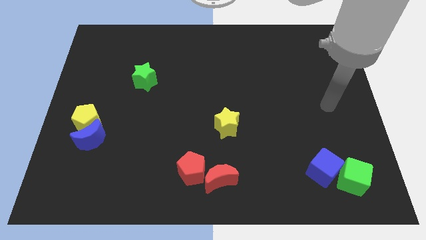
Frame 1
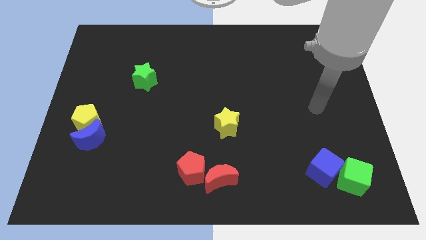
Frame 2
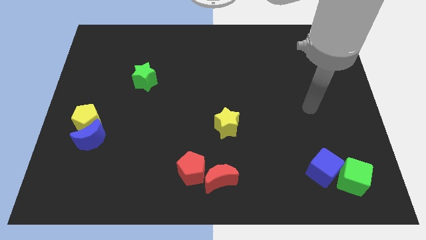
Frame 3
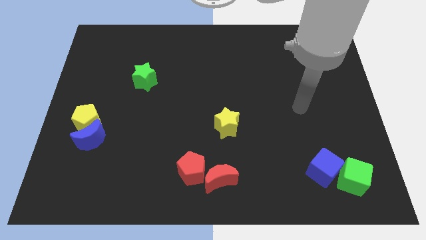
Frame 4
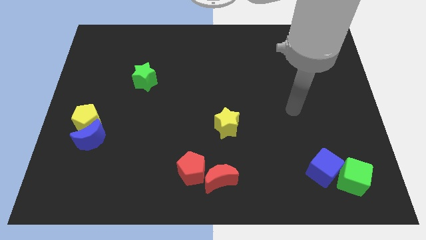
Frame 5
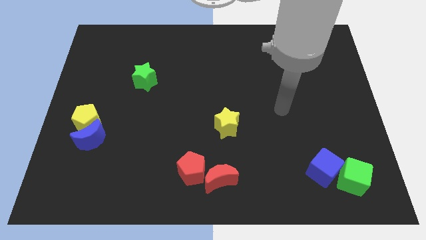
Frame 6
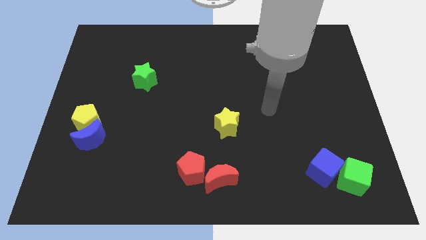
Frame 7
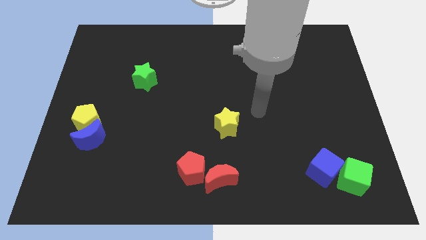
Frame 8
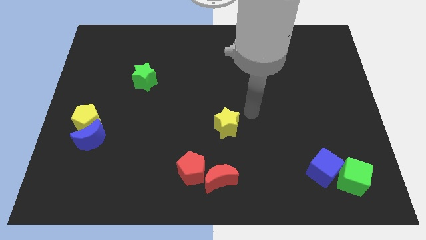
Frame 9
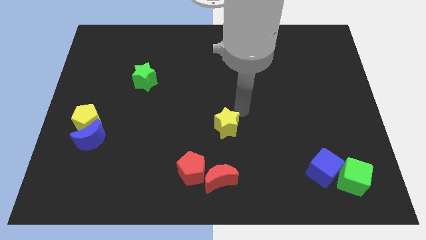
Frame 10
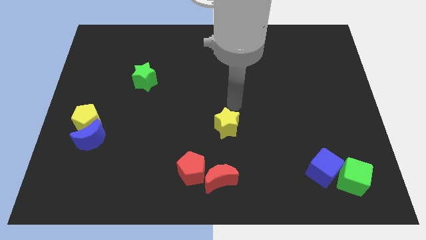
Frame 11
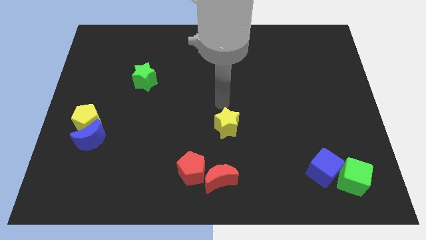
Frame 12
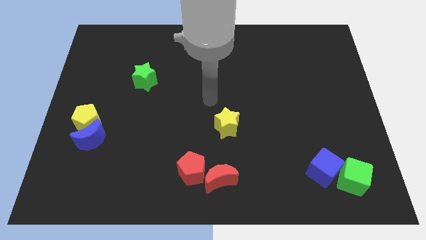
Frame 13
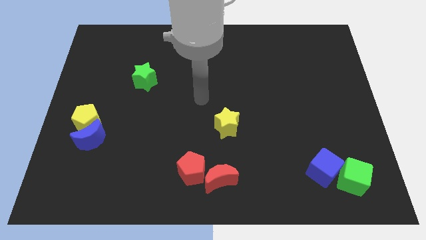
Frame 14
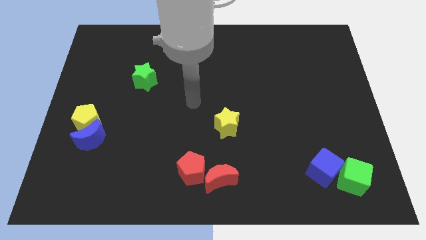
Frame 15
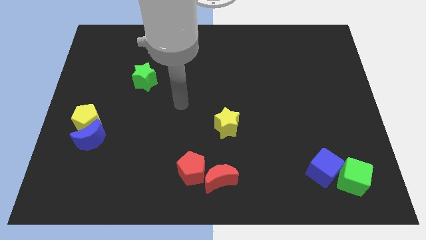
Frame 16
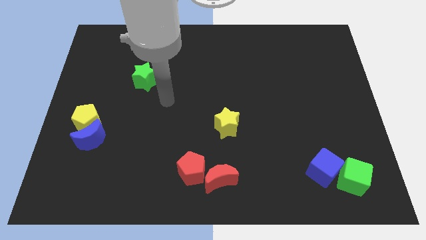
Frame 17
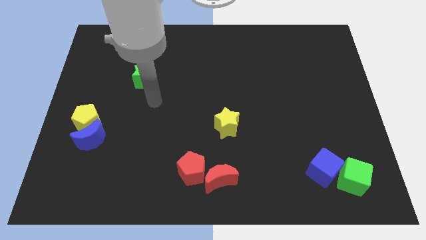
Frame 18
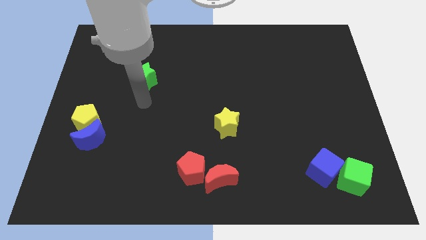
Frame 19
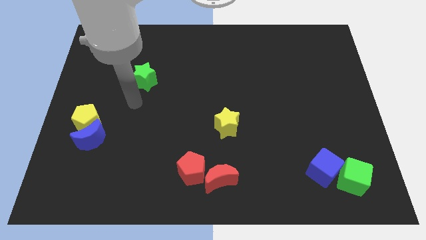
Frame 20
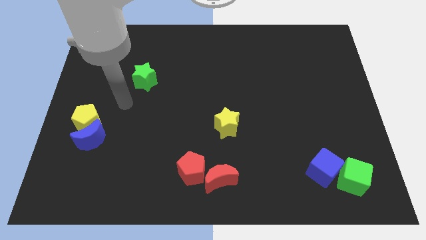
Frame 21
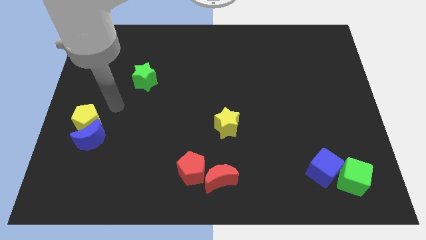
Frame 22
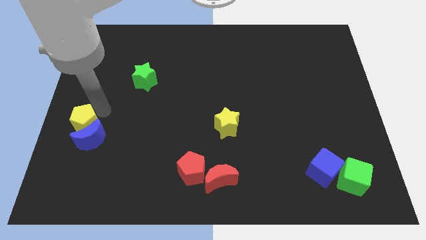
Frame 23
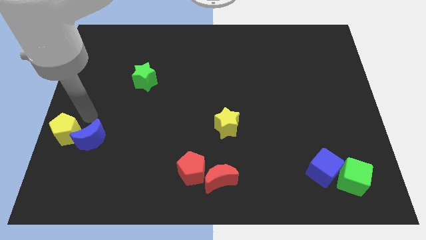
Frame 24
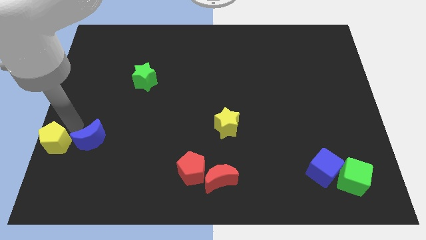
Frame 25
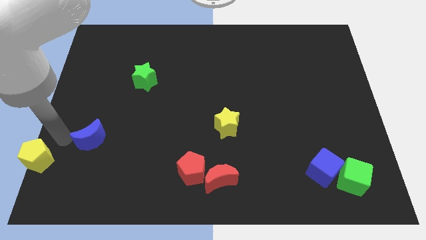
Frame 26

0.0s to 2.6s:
pull the blue moon apart from the yellow pentagon

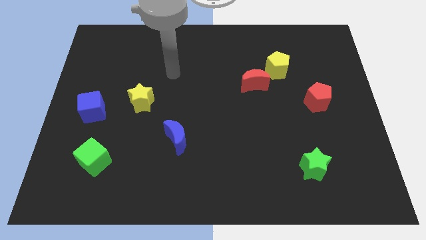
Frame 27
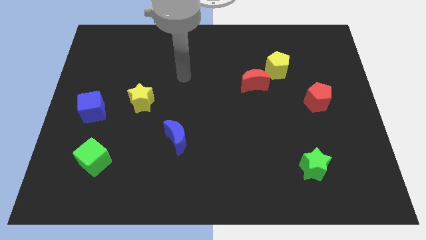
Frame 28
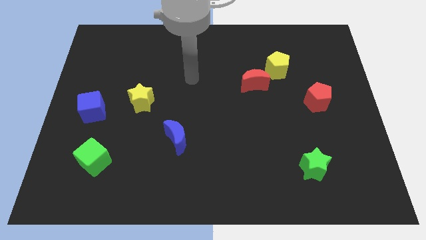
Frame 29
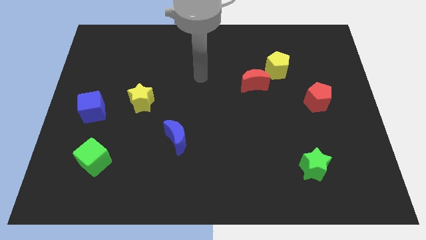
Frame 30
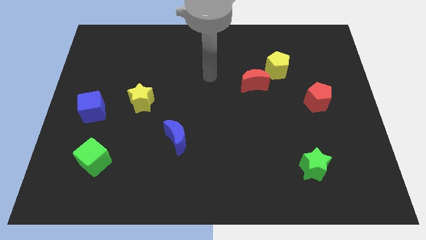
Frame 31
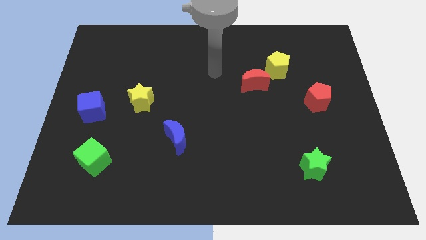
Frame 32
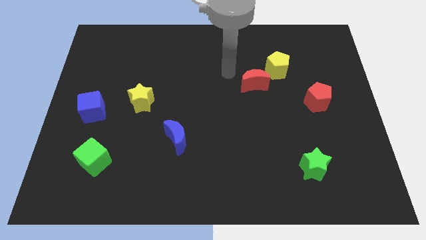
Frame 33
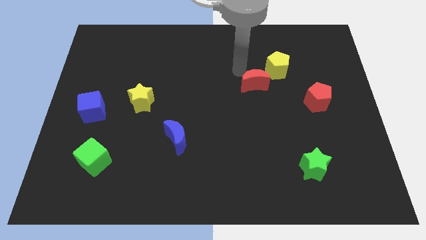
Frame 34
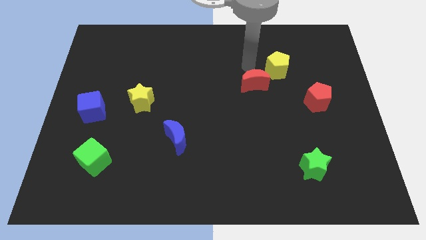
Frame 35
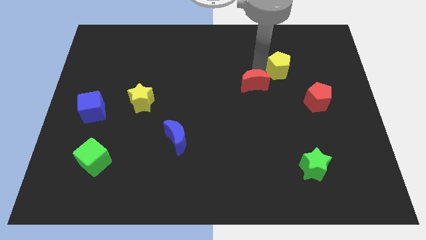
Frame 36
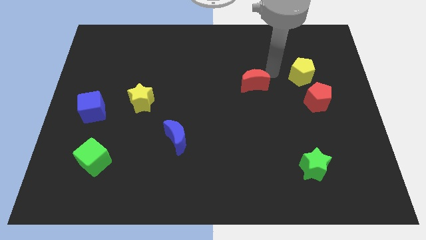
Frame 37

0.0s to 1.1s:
move the red moon away from the yellow pentagon

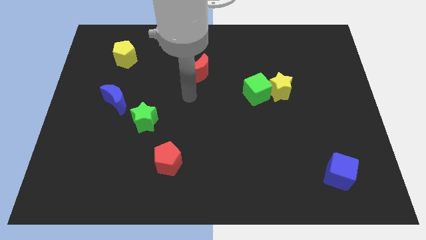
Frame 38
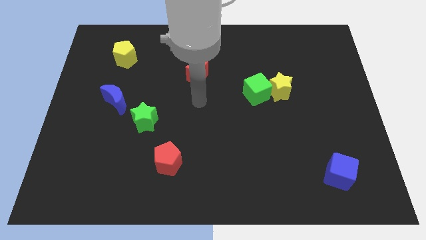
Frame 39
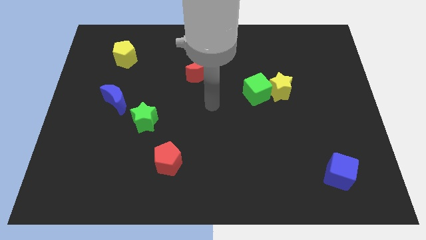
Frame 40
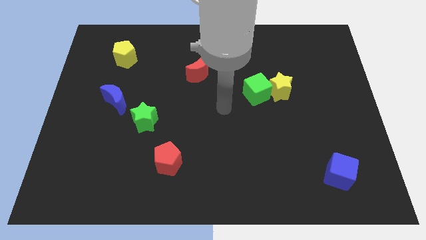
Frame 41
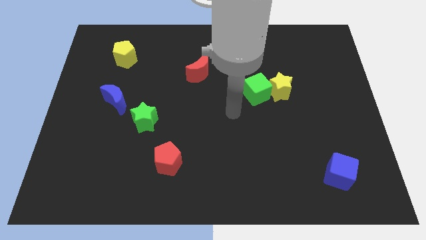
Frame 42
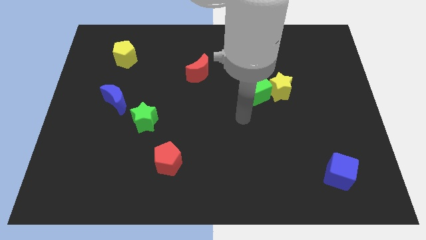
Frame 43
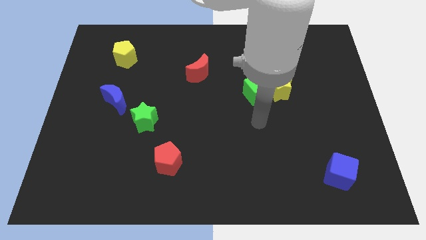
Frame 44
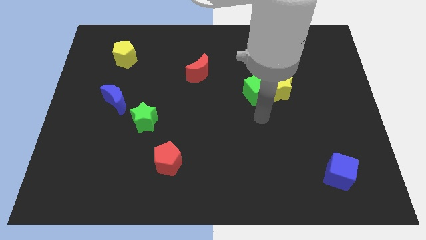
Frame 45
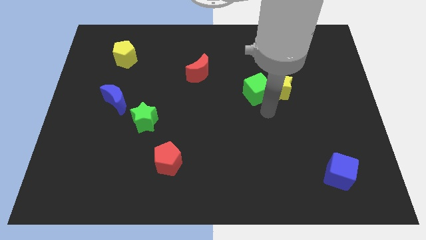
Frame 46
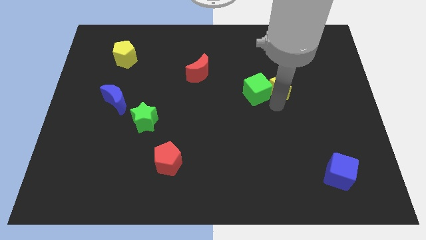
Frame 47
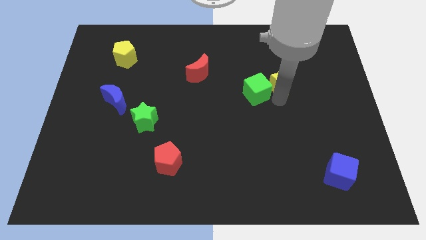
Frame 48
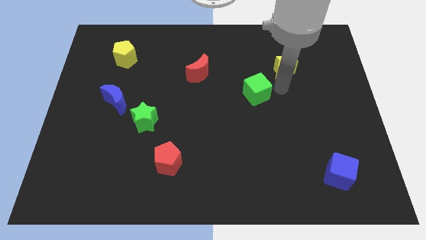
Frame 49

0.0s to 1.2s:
pull the green cube apart from the yellow star

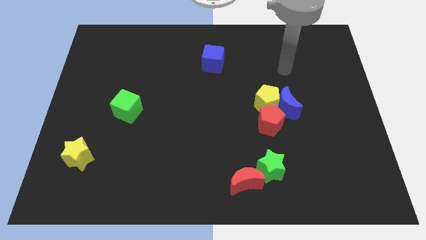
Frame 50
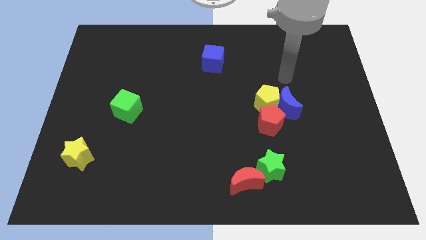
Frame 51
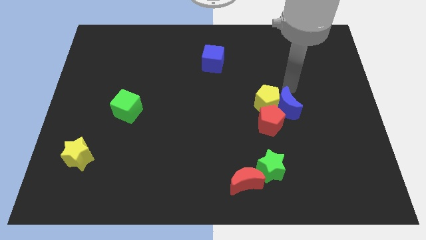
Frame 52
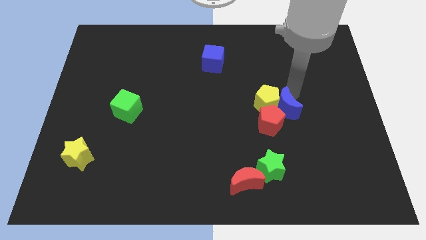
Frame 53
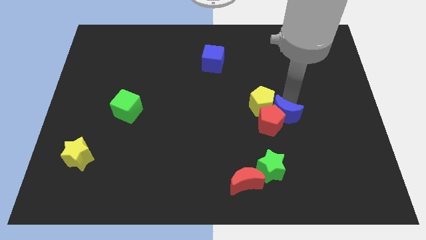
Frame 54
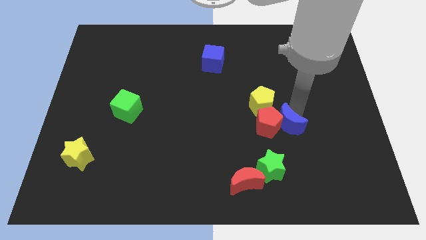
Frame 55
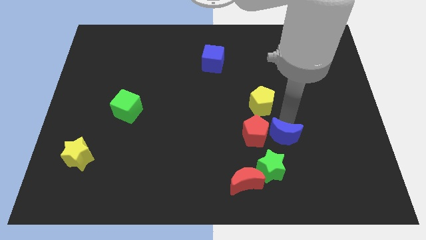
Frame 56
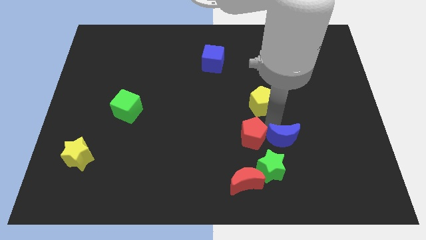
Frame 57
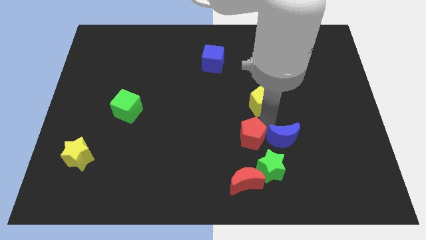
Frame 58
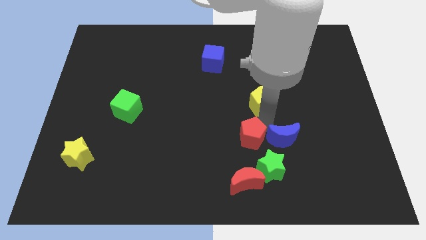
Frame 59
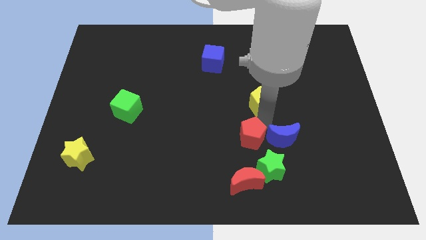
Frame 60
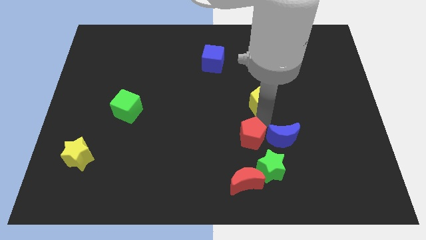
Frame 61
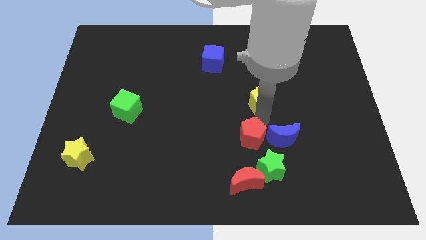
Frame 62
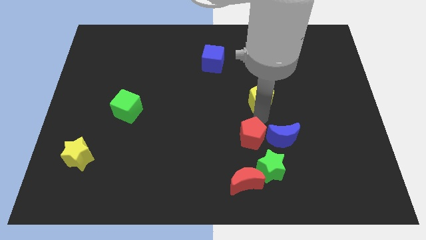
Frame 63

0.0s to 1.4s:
move the yellow pentagon away from the blue moon and red pentagon

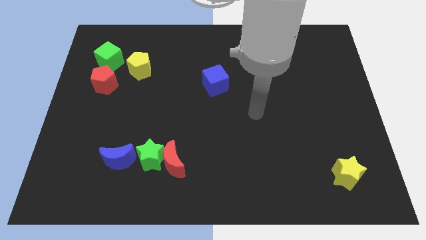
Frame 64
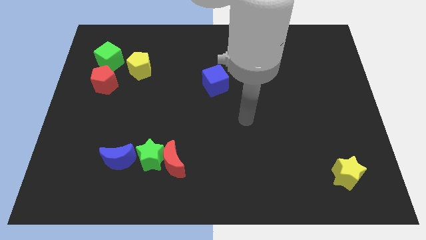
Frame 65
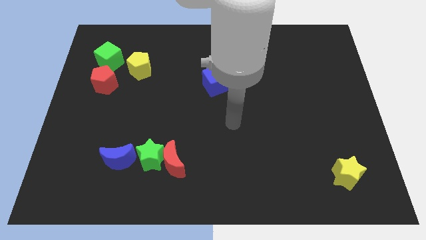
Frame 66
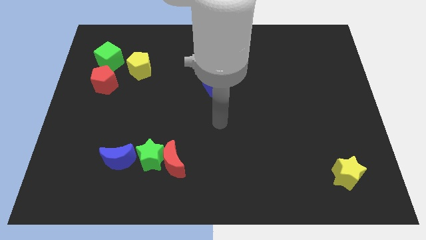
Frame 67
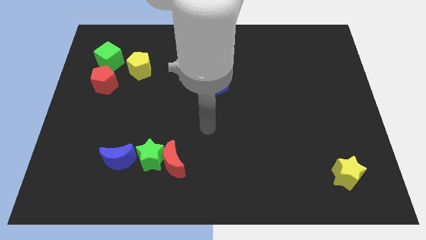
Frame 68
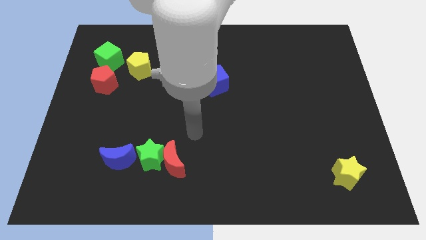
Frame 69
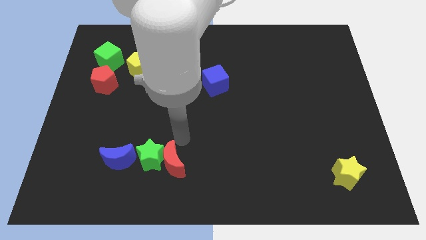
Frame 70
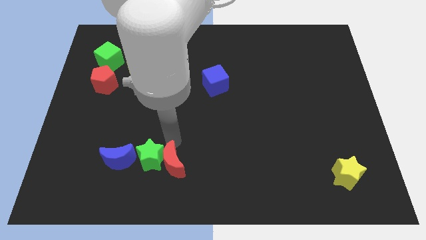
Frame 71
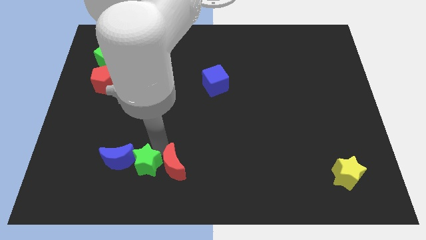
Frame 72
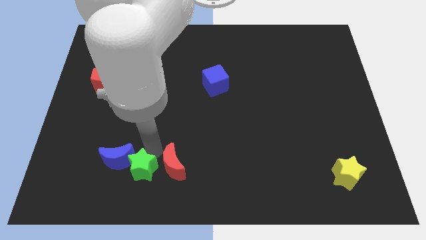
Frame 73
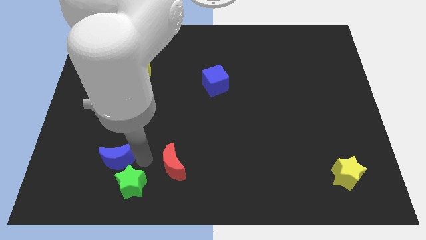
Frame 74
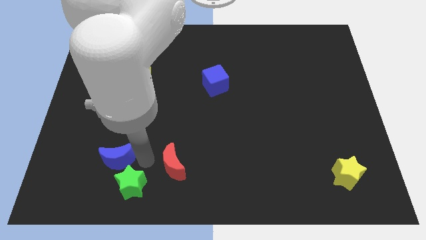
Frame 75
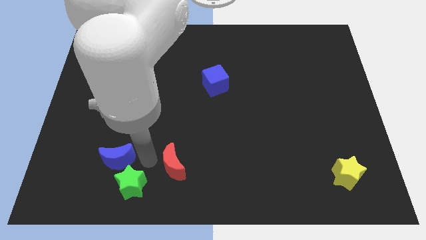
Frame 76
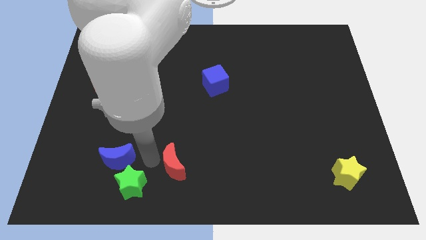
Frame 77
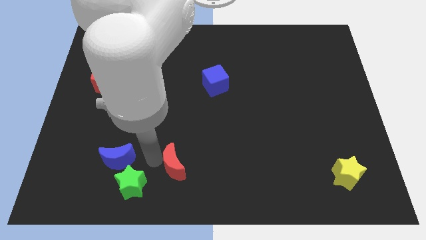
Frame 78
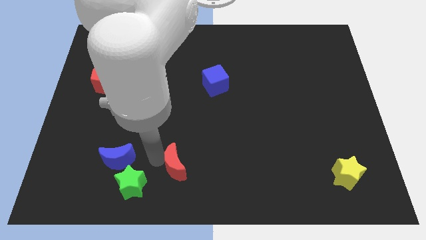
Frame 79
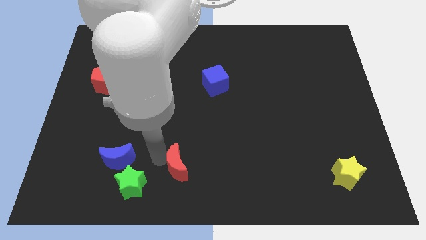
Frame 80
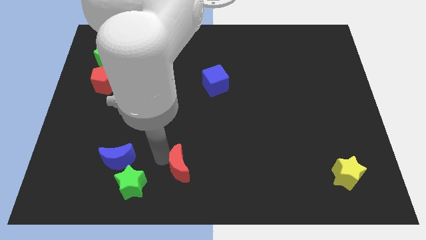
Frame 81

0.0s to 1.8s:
separate the red moon from the green star

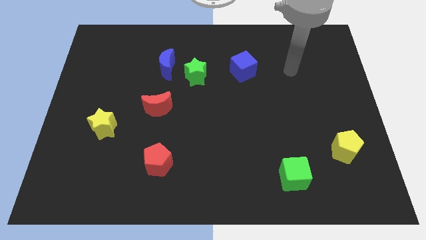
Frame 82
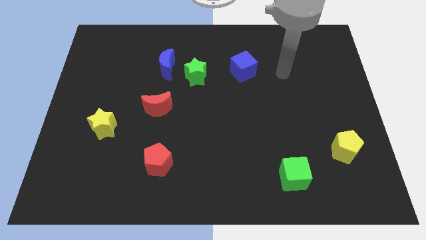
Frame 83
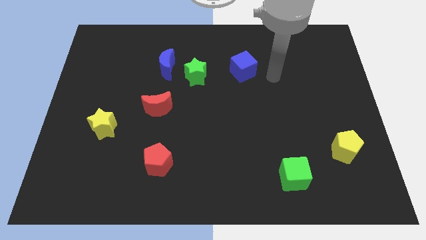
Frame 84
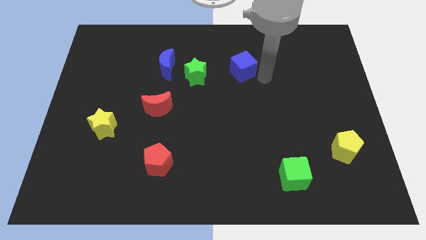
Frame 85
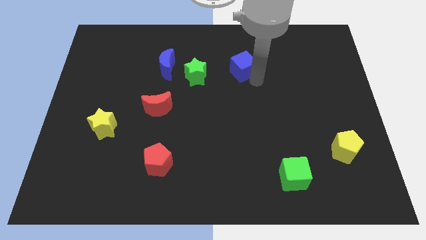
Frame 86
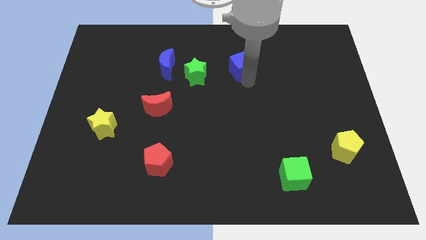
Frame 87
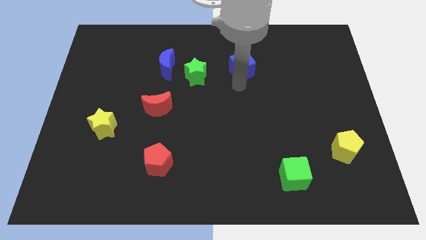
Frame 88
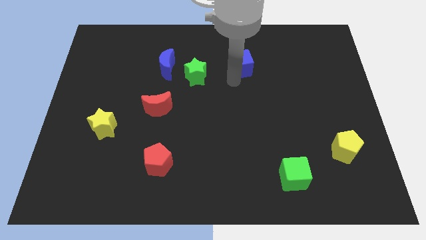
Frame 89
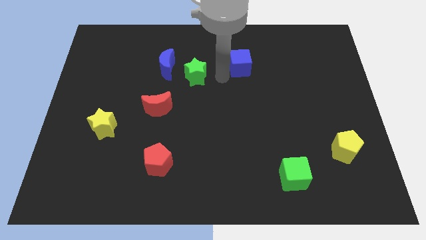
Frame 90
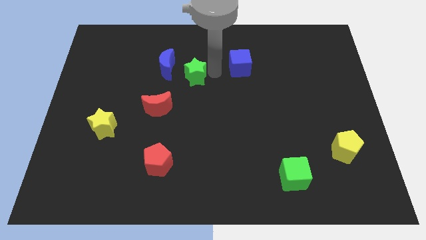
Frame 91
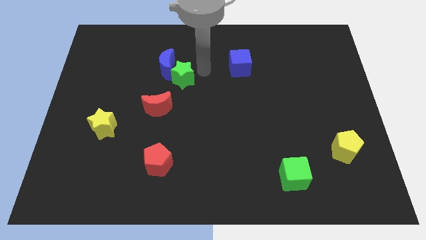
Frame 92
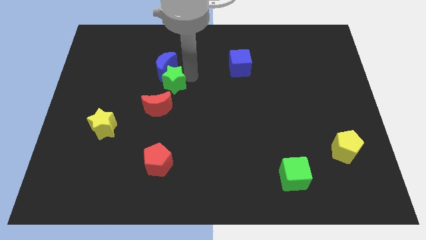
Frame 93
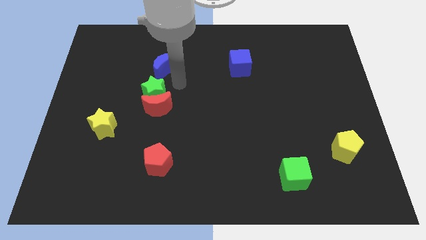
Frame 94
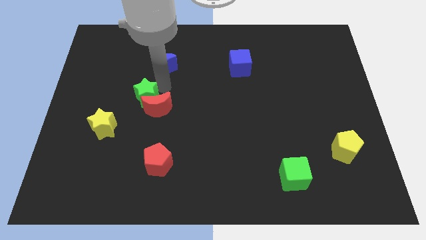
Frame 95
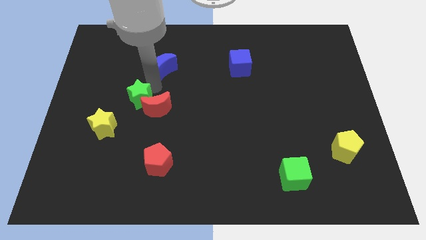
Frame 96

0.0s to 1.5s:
move the blue moon away from the green star
